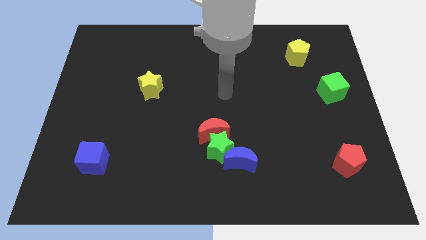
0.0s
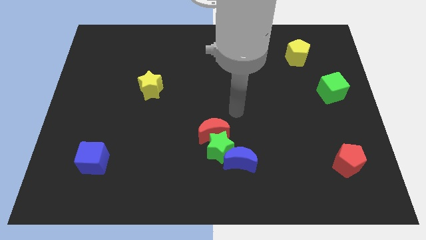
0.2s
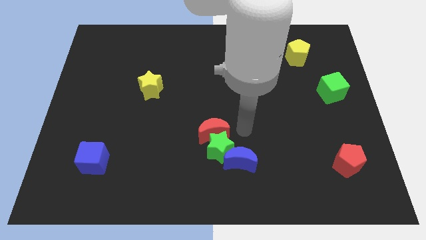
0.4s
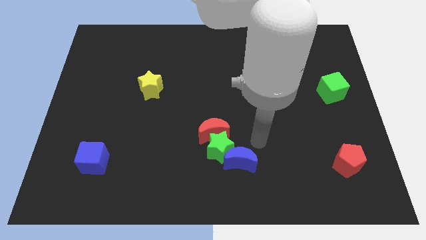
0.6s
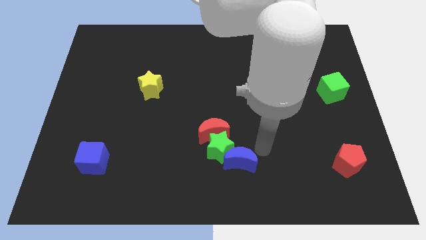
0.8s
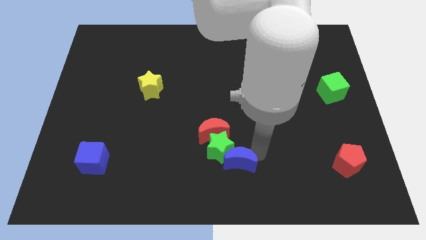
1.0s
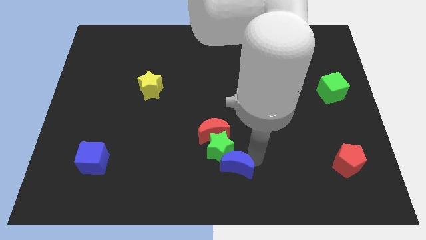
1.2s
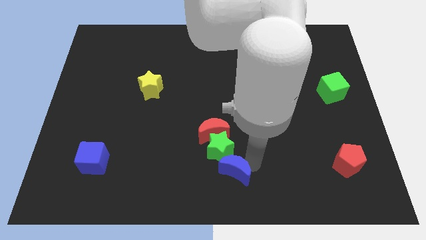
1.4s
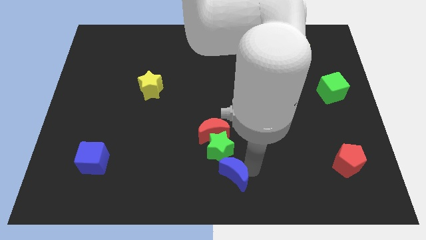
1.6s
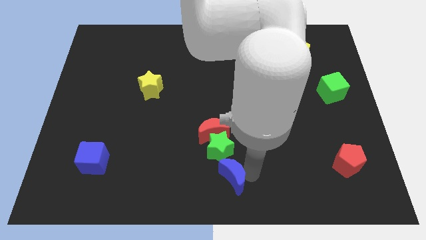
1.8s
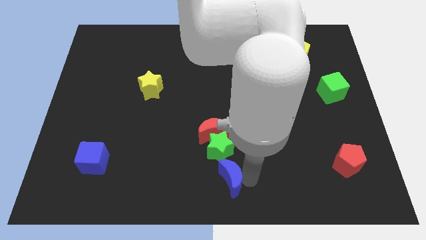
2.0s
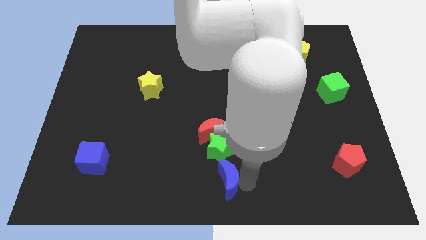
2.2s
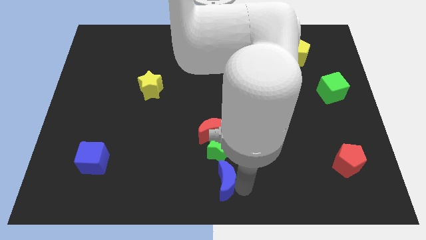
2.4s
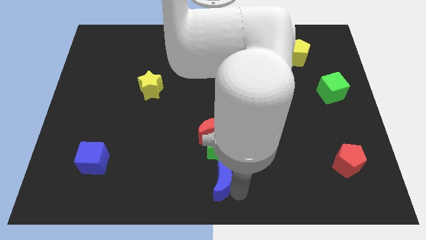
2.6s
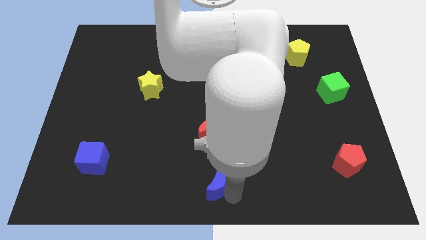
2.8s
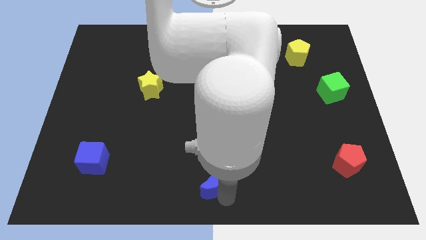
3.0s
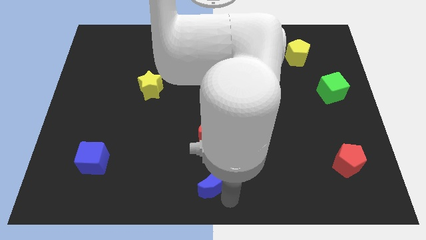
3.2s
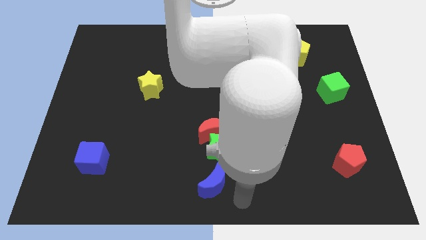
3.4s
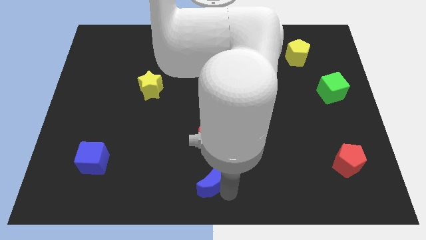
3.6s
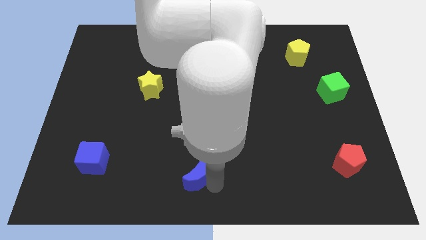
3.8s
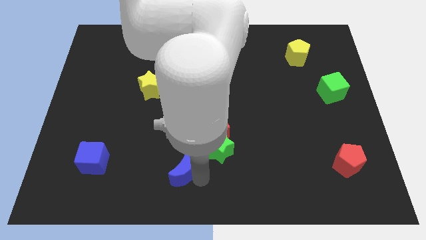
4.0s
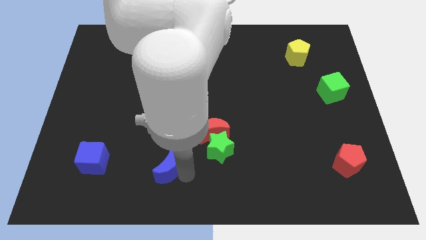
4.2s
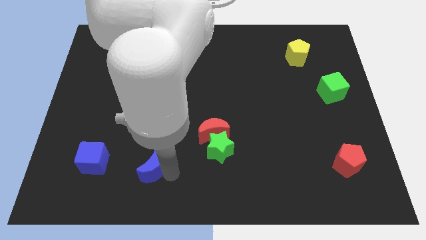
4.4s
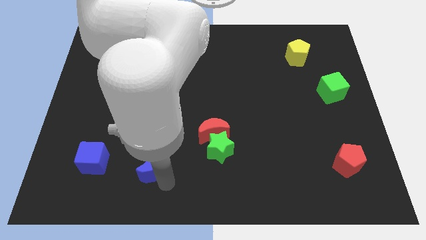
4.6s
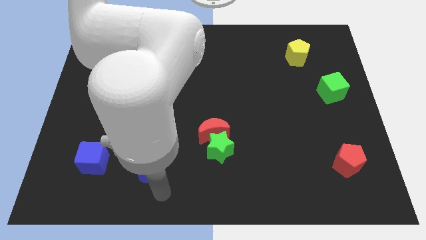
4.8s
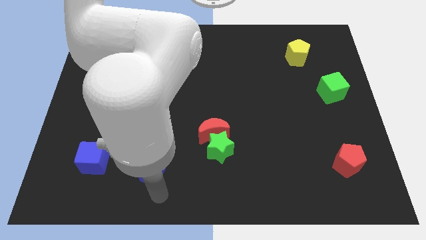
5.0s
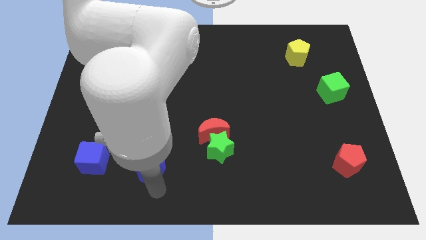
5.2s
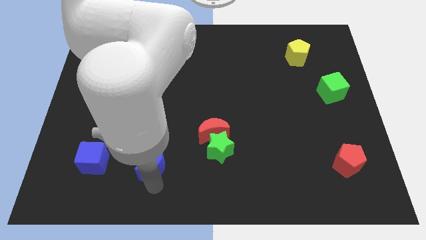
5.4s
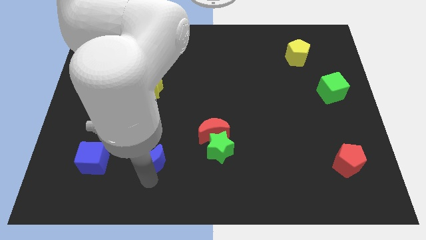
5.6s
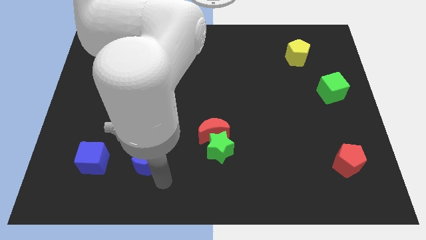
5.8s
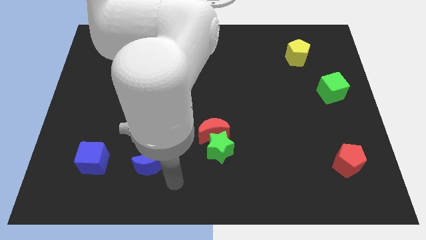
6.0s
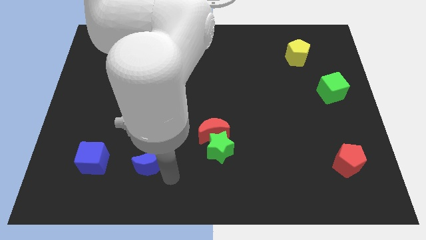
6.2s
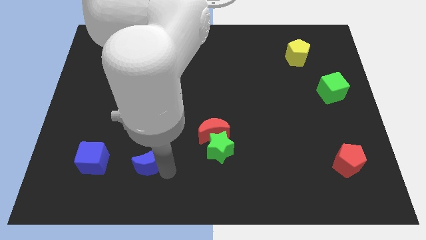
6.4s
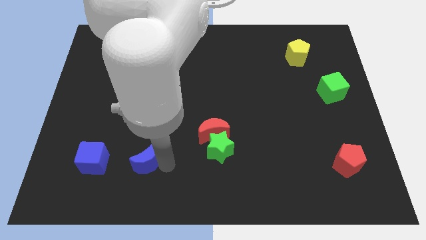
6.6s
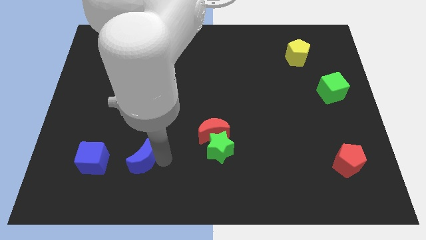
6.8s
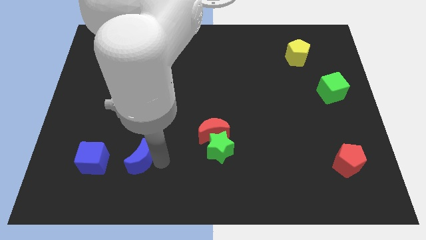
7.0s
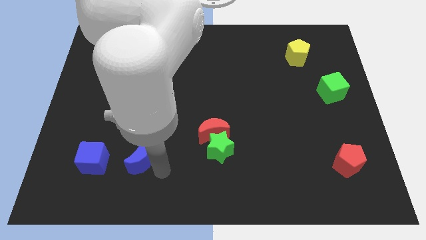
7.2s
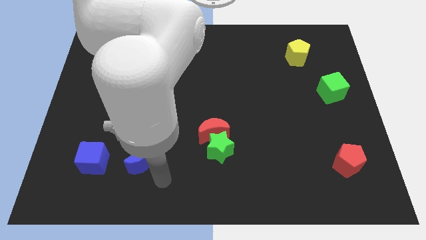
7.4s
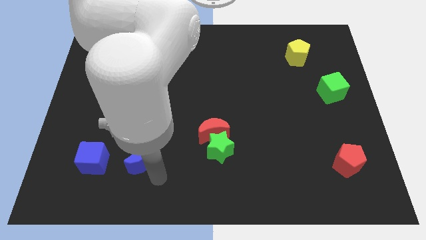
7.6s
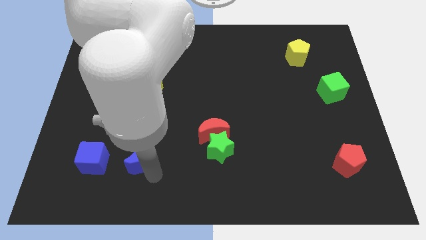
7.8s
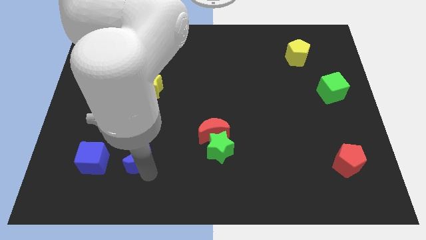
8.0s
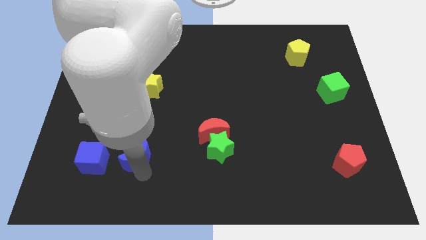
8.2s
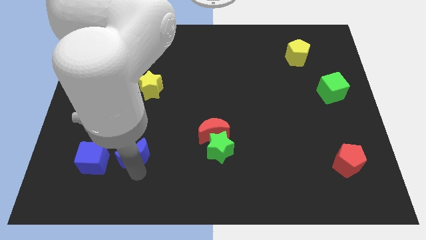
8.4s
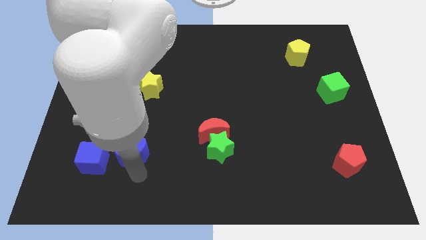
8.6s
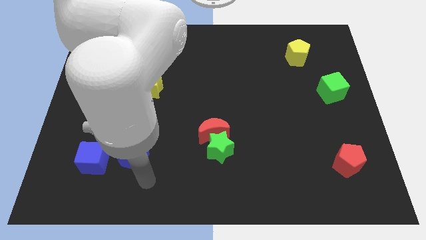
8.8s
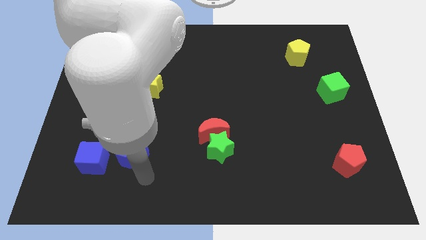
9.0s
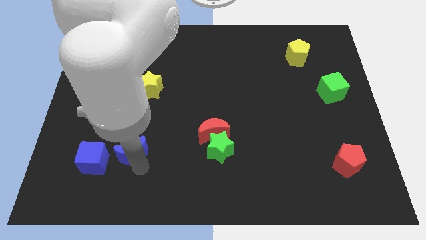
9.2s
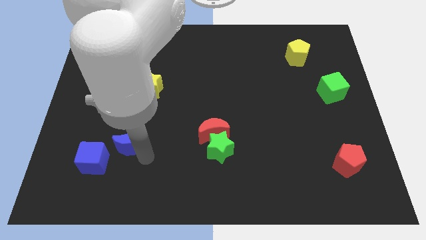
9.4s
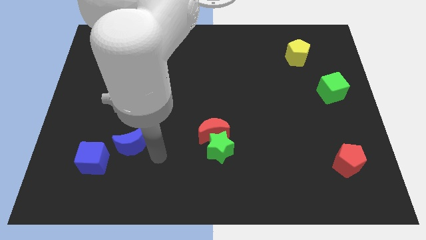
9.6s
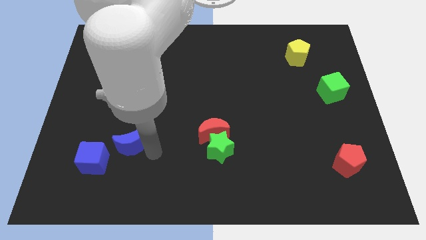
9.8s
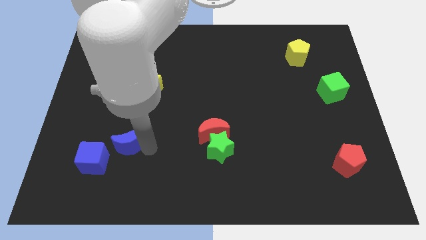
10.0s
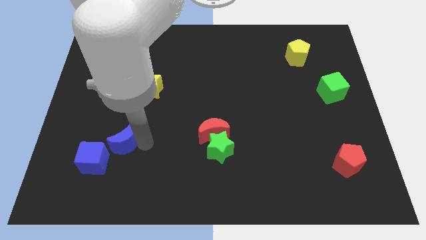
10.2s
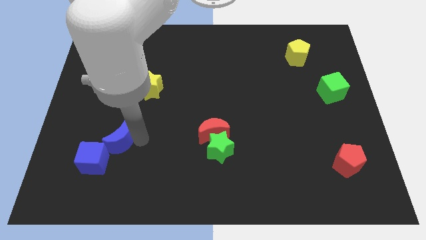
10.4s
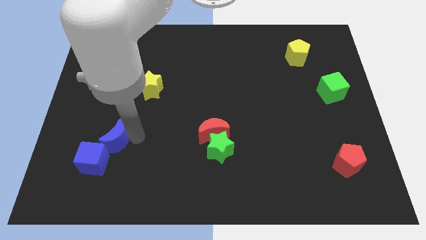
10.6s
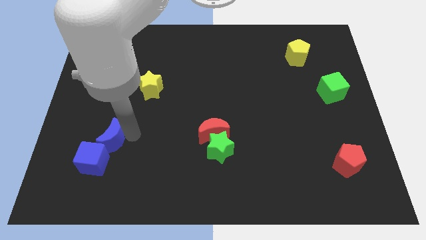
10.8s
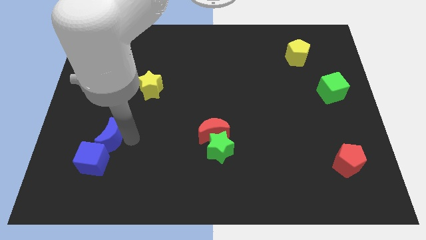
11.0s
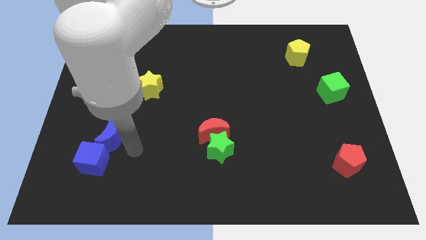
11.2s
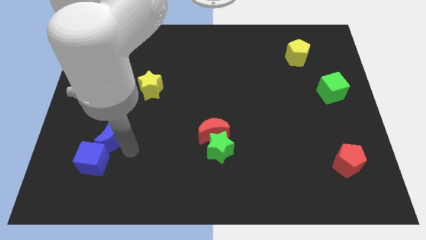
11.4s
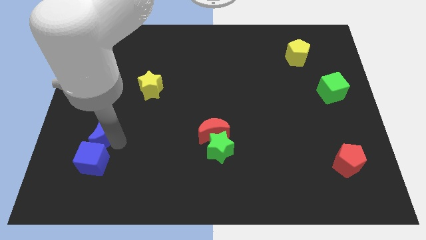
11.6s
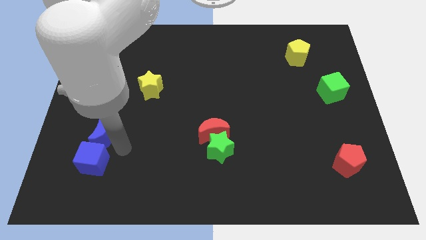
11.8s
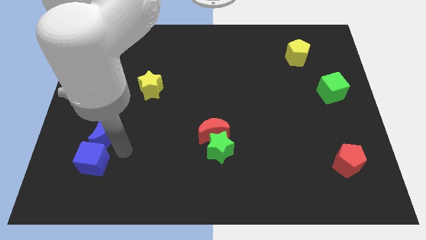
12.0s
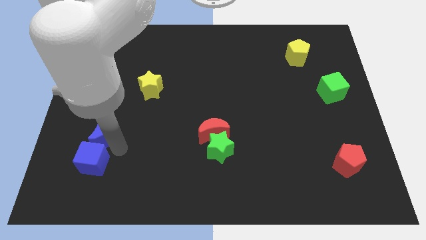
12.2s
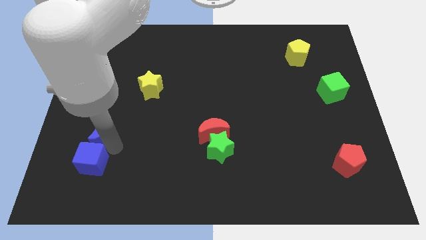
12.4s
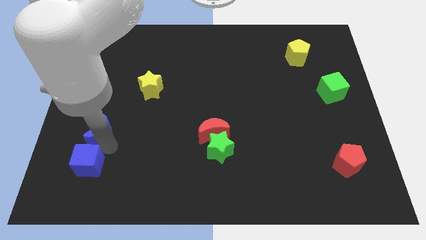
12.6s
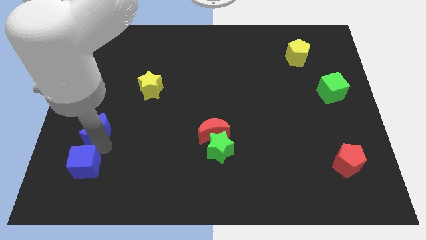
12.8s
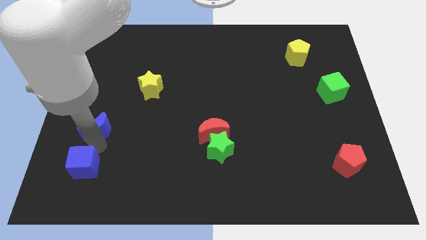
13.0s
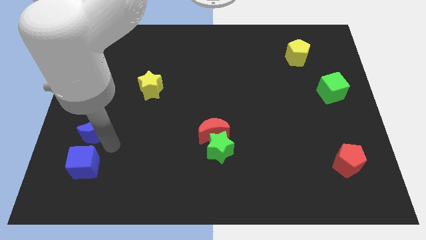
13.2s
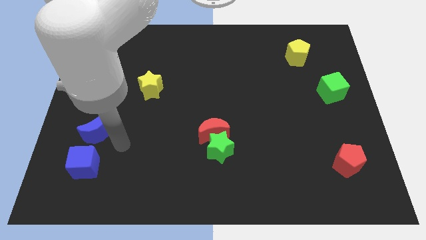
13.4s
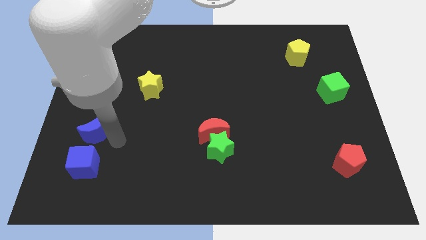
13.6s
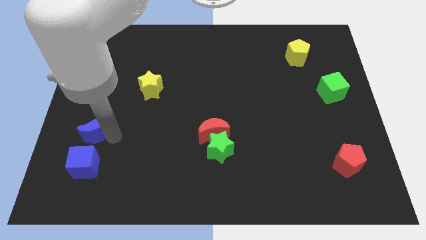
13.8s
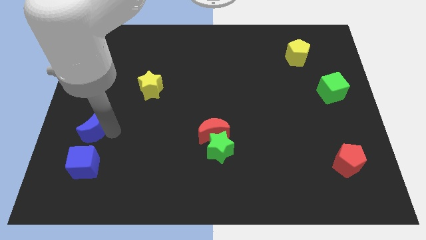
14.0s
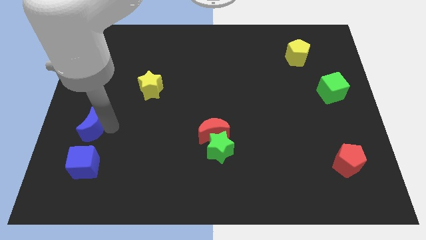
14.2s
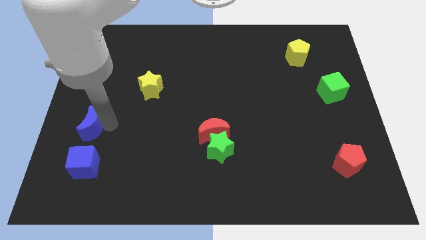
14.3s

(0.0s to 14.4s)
slide the blue moon to the left side
